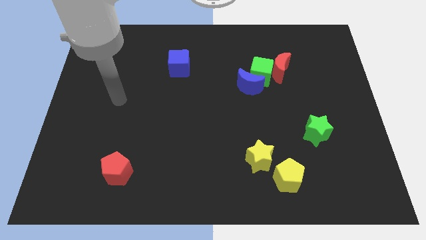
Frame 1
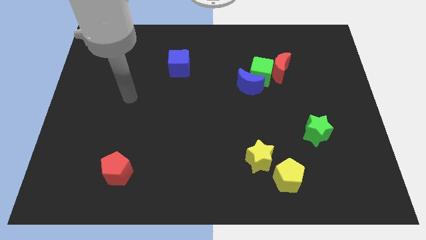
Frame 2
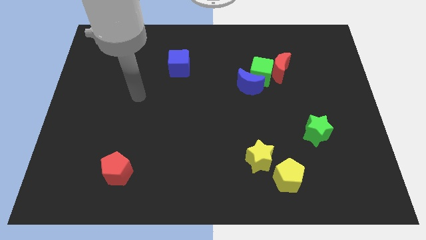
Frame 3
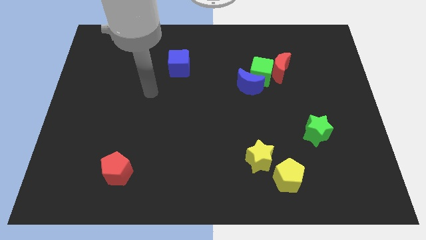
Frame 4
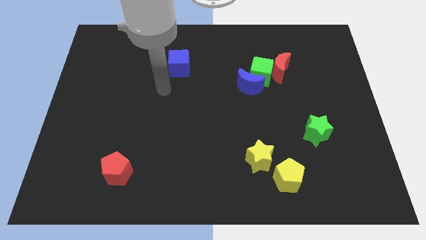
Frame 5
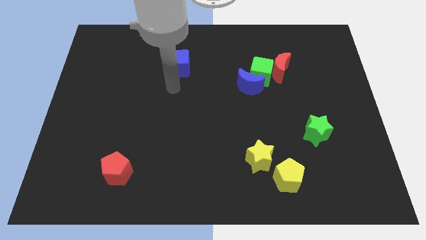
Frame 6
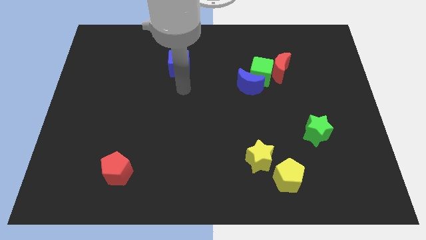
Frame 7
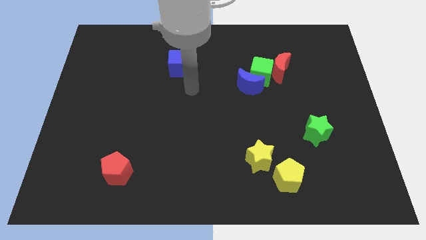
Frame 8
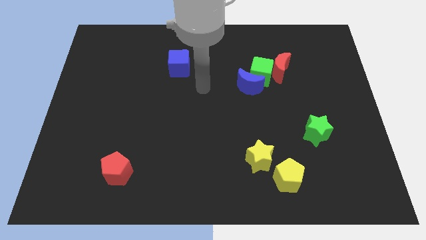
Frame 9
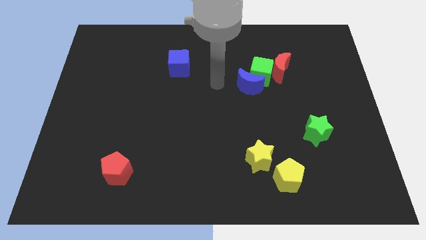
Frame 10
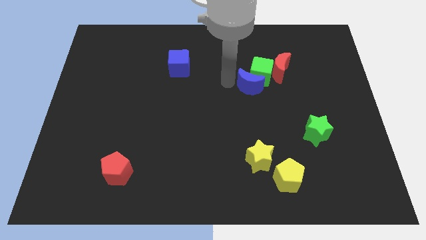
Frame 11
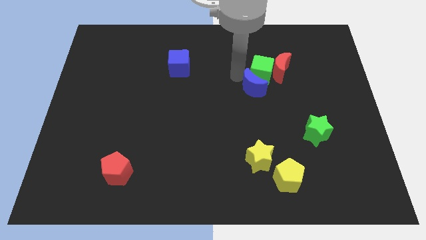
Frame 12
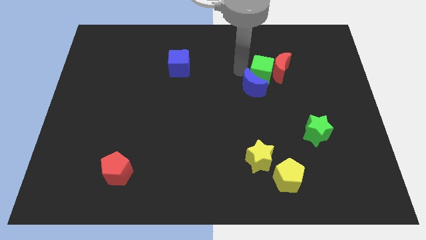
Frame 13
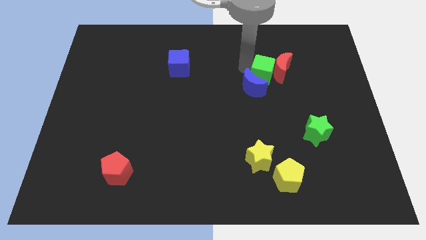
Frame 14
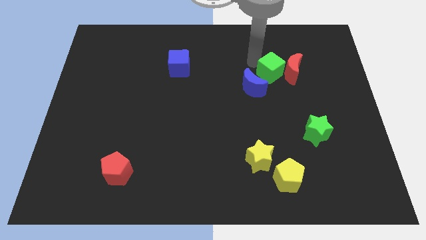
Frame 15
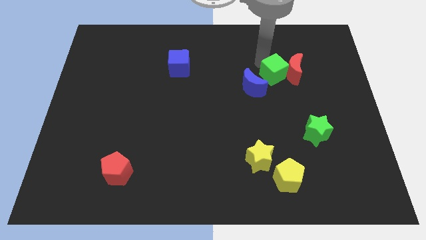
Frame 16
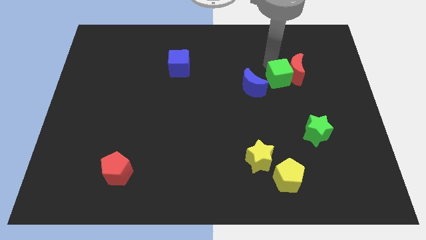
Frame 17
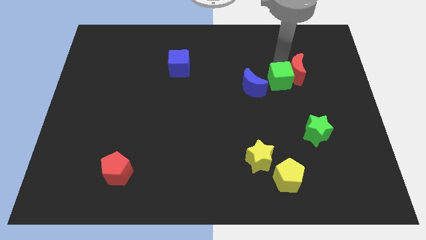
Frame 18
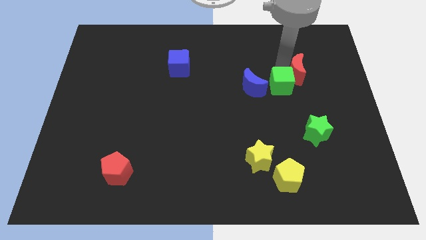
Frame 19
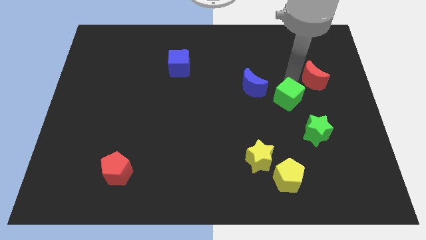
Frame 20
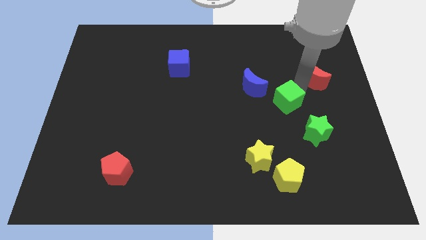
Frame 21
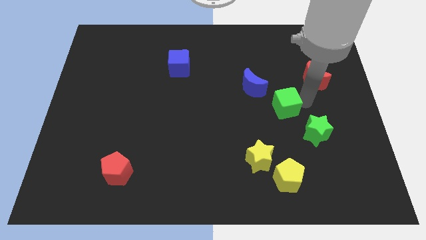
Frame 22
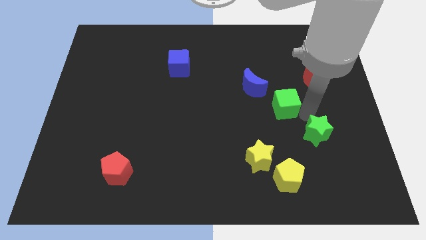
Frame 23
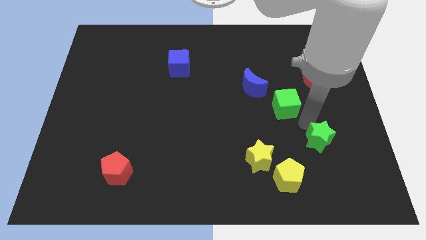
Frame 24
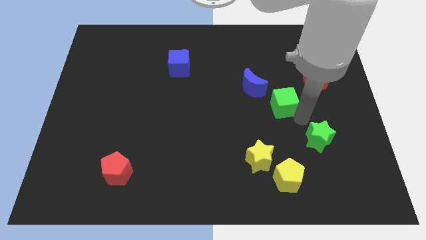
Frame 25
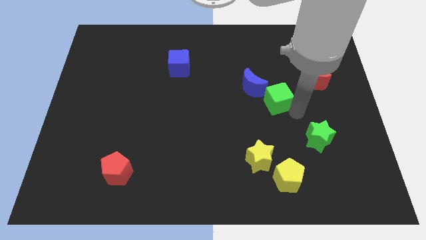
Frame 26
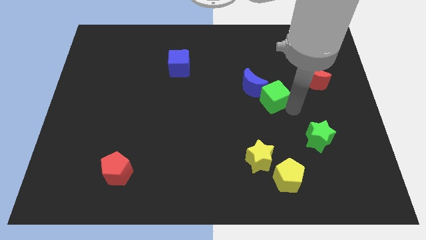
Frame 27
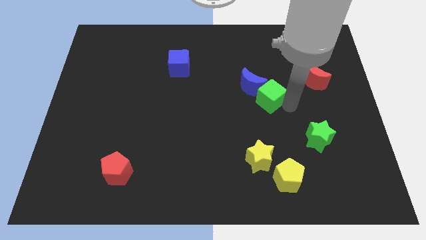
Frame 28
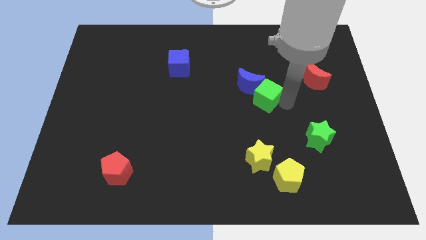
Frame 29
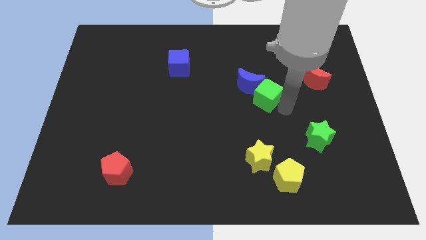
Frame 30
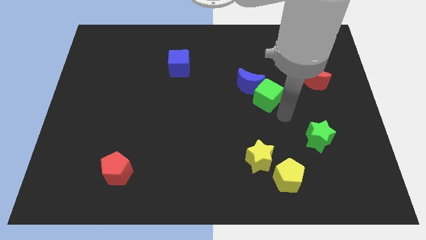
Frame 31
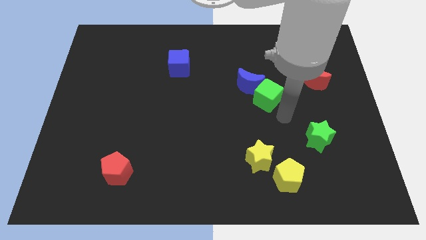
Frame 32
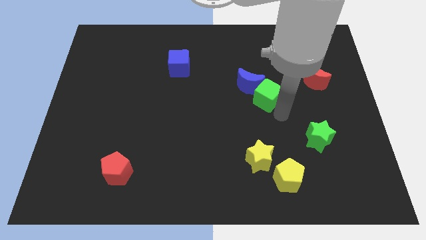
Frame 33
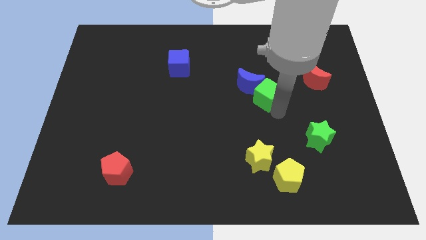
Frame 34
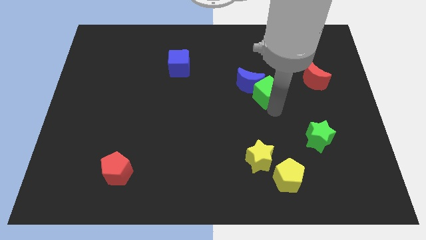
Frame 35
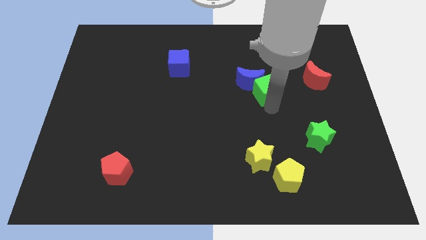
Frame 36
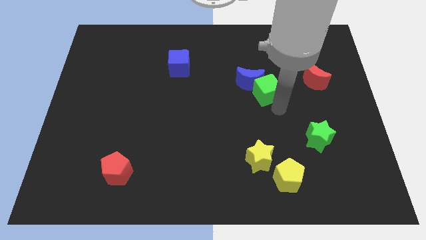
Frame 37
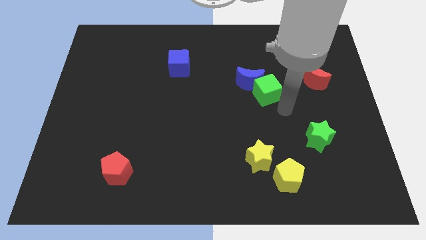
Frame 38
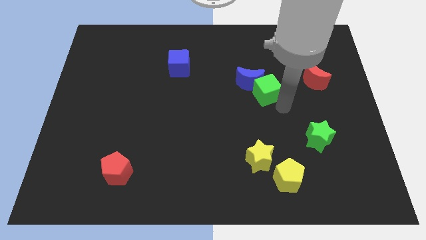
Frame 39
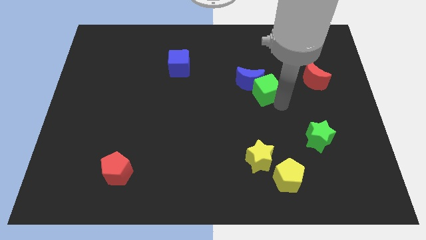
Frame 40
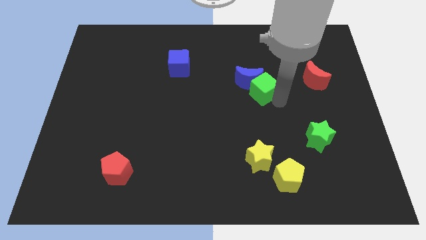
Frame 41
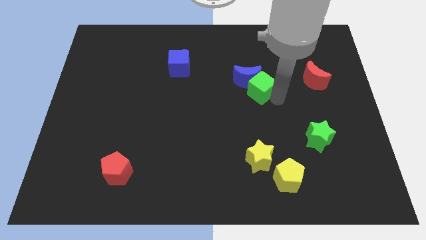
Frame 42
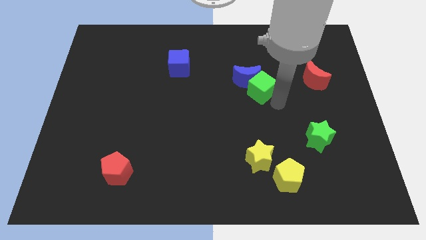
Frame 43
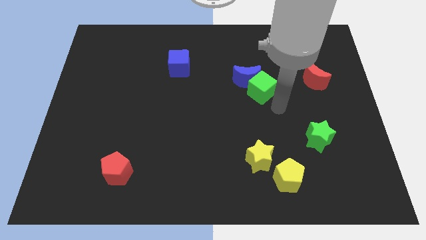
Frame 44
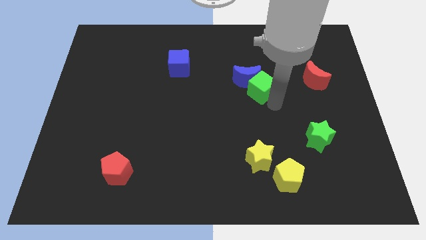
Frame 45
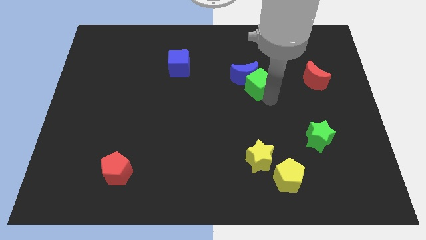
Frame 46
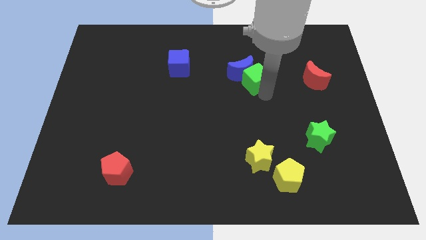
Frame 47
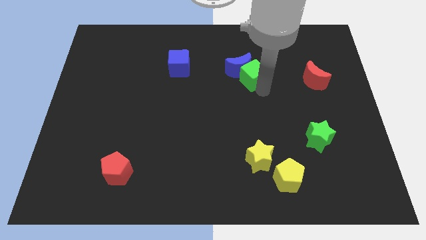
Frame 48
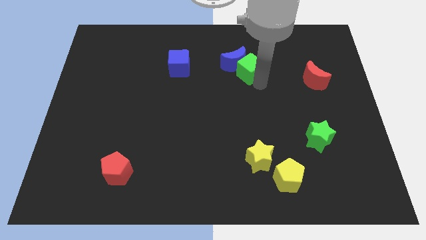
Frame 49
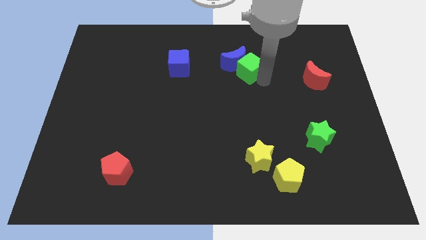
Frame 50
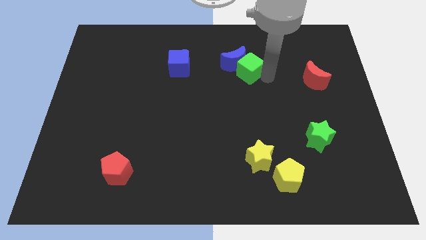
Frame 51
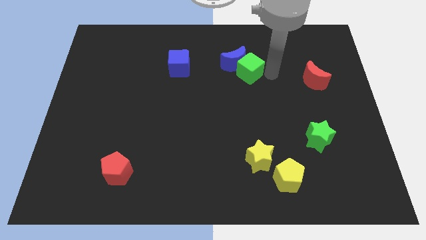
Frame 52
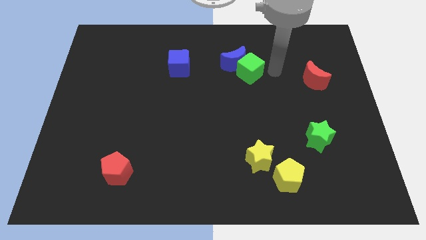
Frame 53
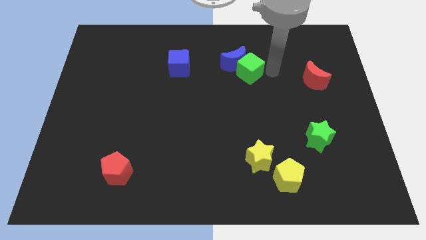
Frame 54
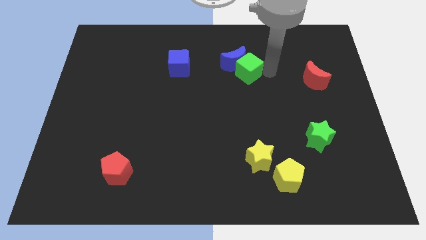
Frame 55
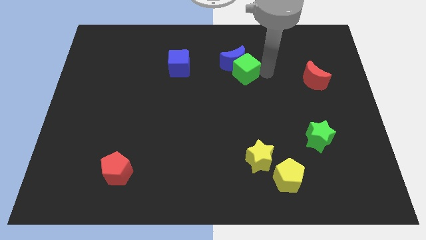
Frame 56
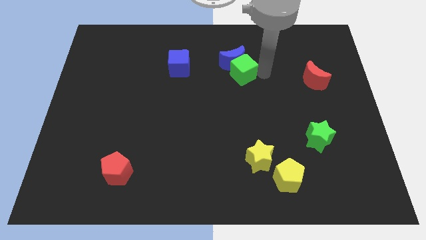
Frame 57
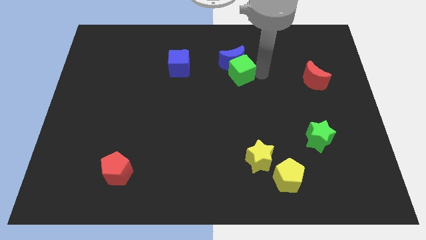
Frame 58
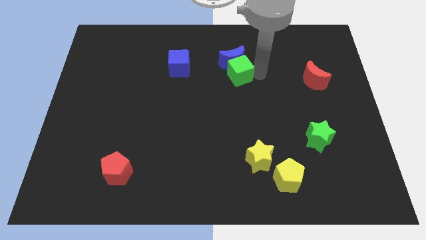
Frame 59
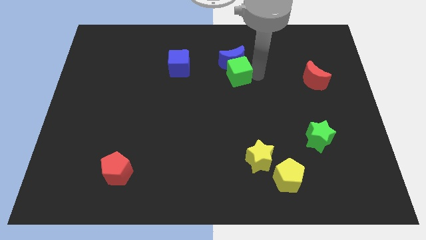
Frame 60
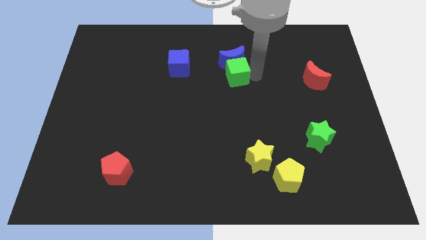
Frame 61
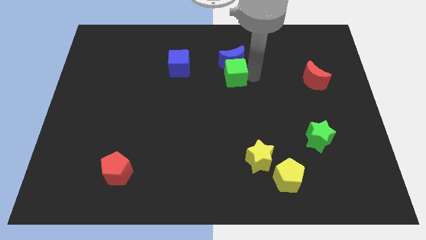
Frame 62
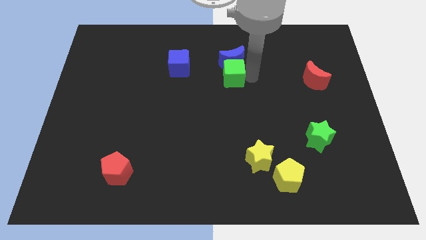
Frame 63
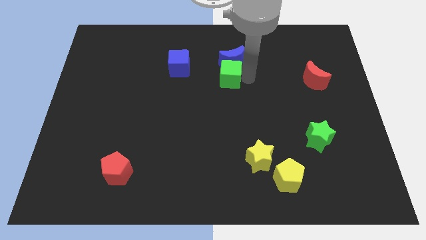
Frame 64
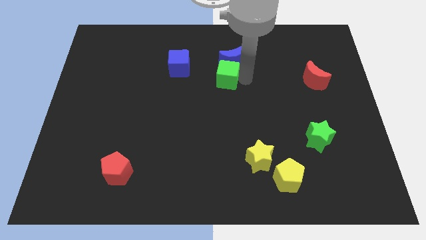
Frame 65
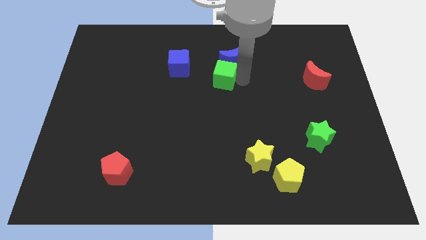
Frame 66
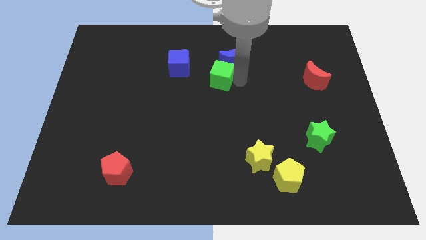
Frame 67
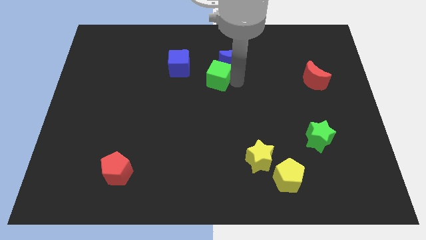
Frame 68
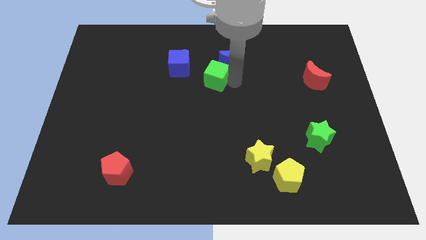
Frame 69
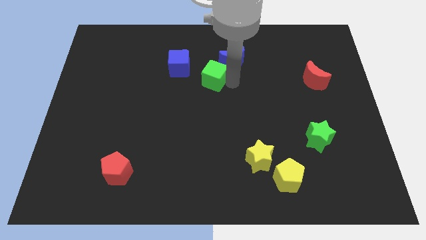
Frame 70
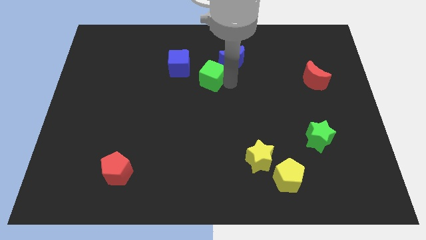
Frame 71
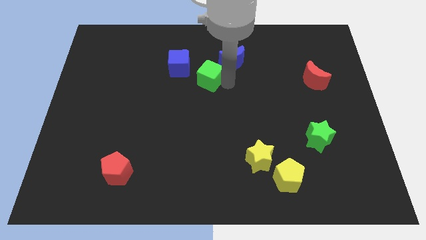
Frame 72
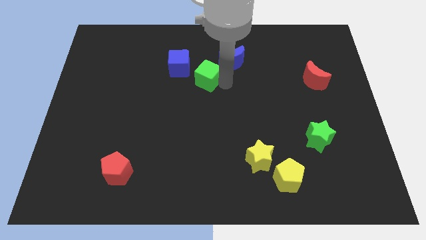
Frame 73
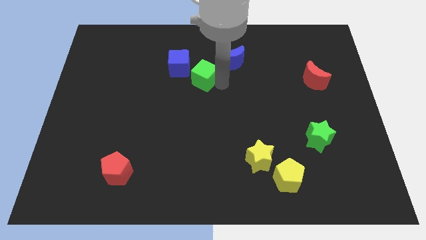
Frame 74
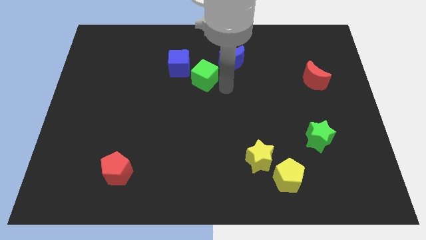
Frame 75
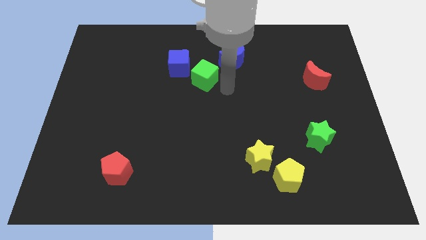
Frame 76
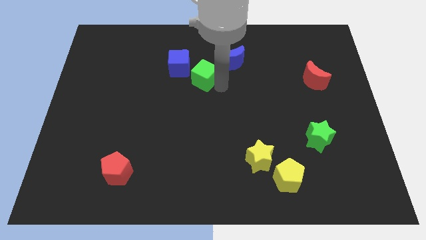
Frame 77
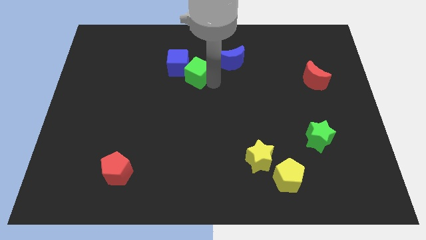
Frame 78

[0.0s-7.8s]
put the green cube to the blue cube
